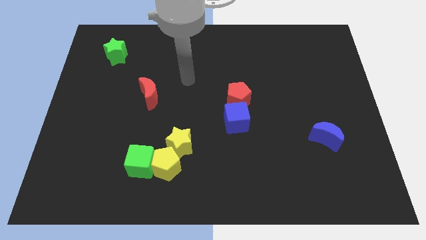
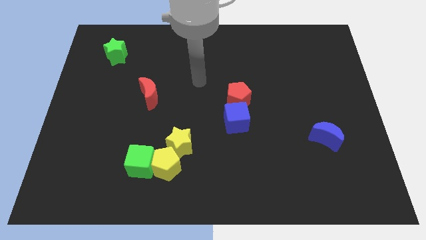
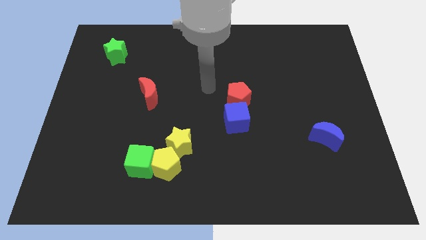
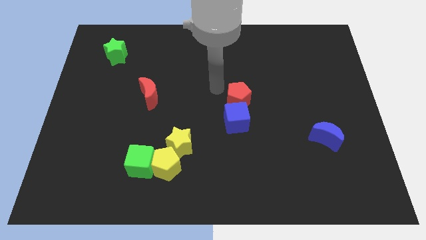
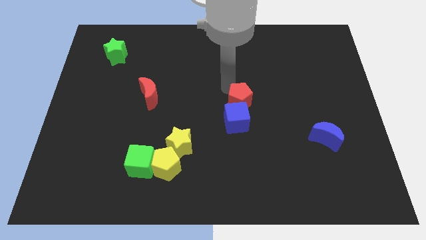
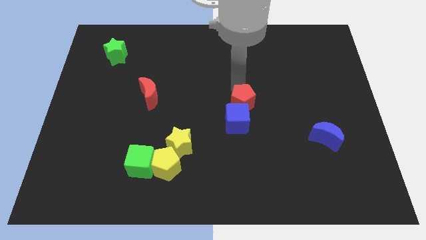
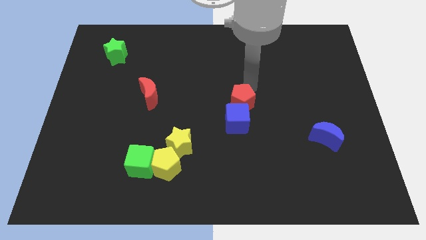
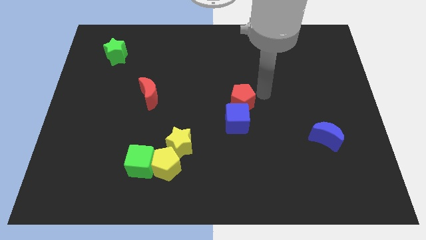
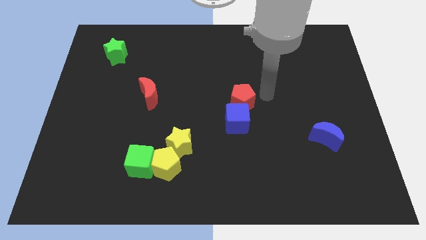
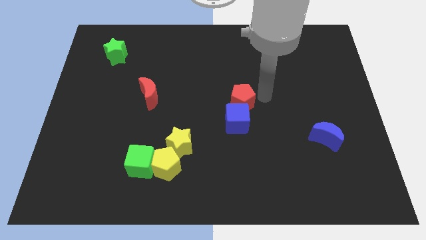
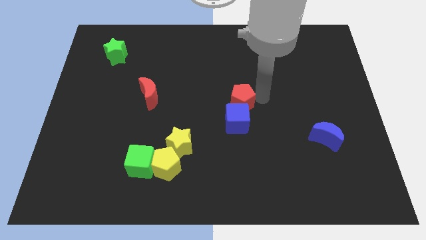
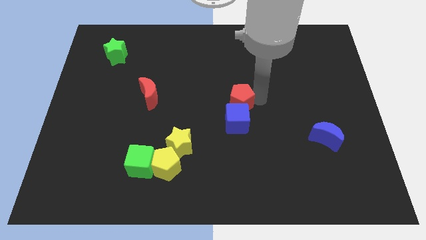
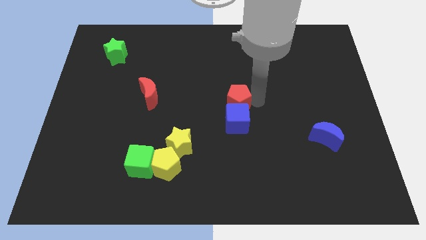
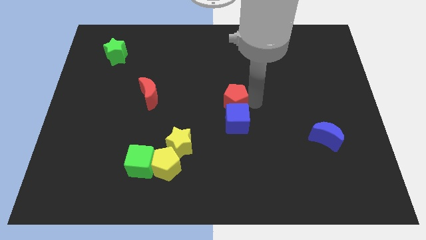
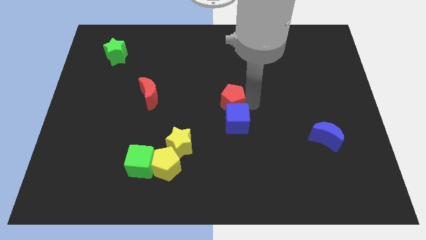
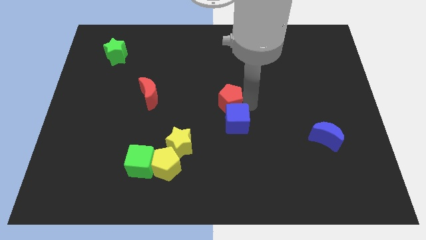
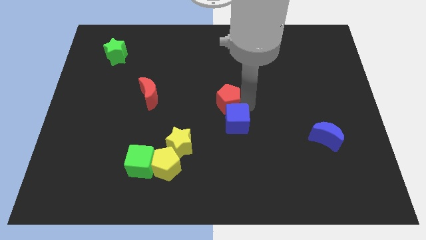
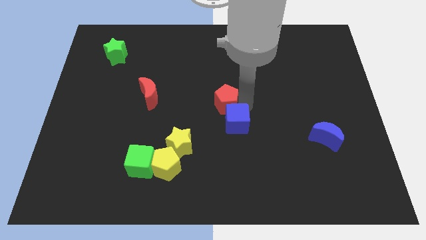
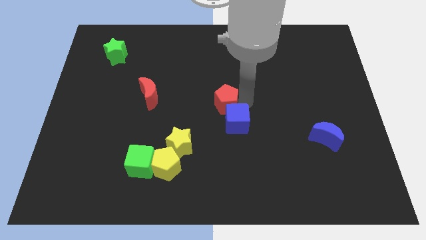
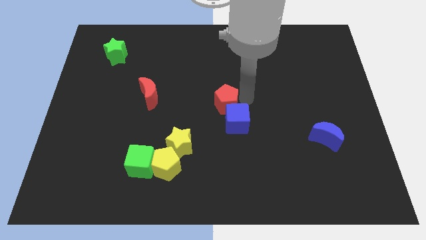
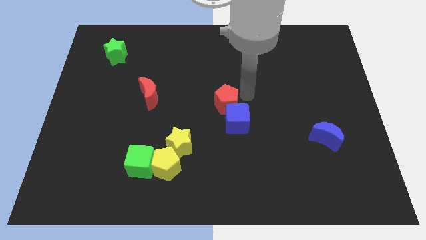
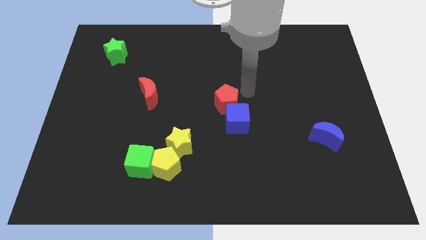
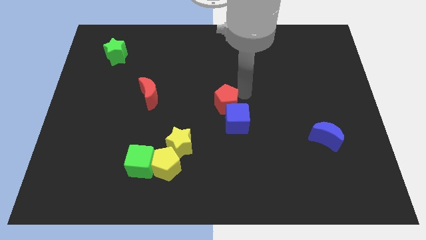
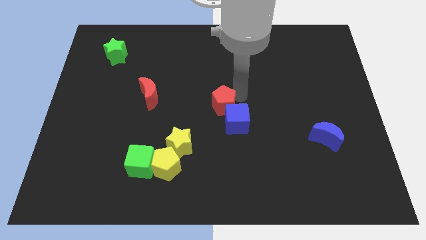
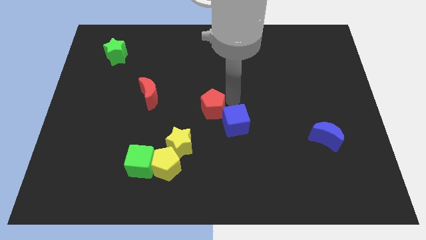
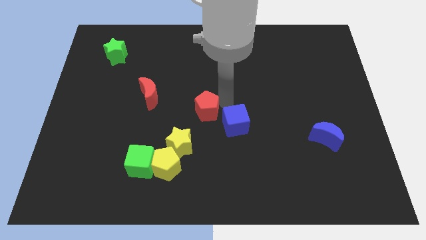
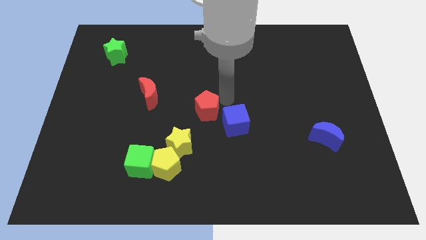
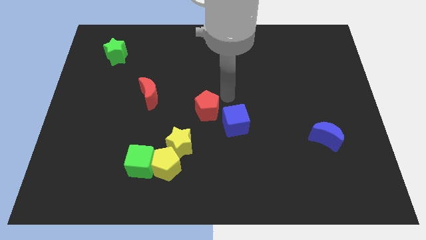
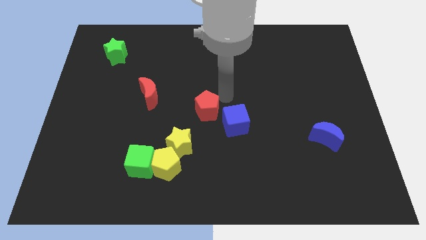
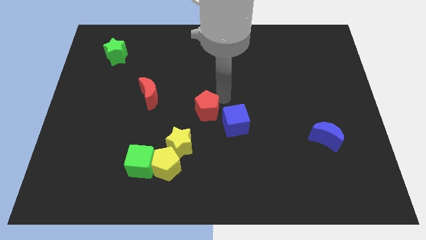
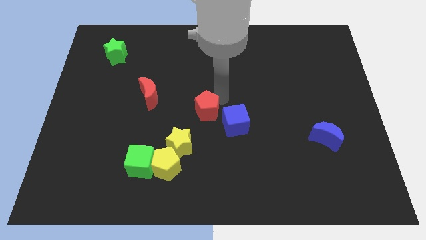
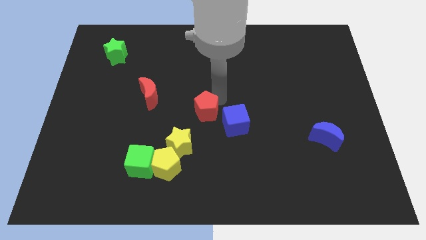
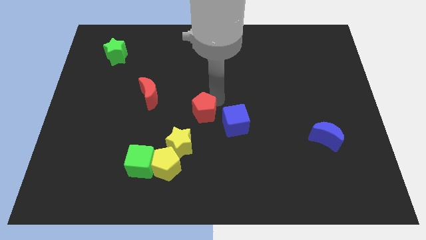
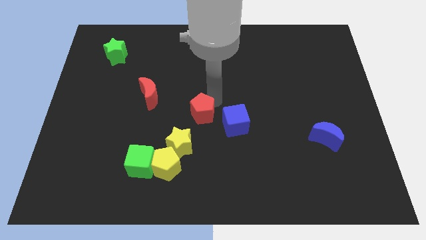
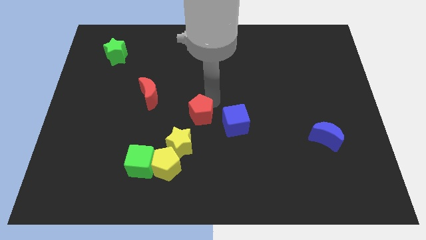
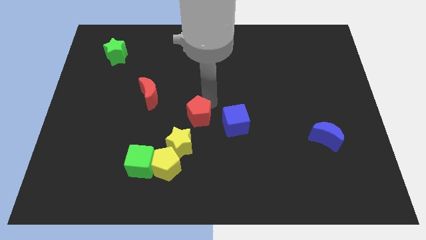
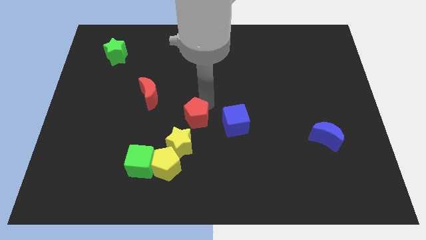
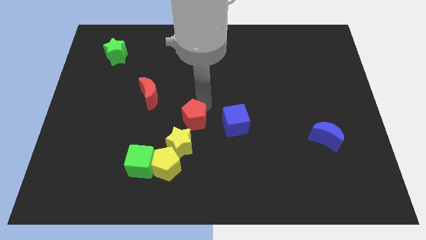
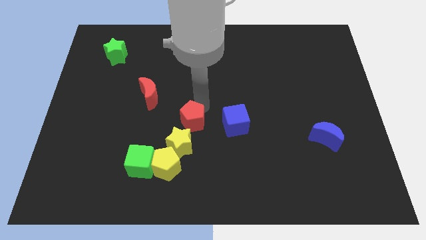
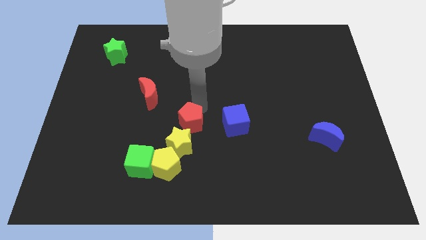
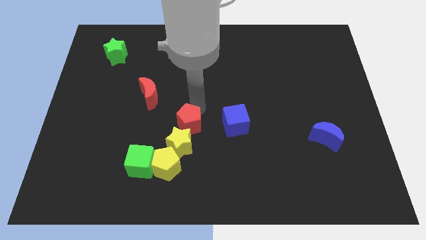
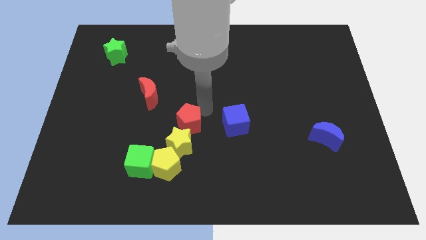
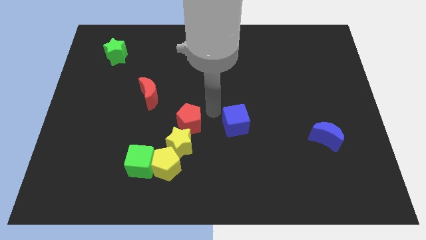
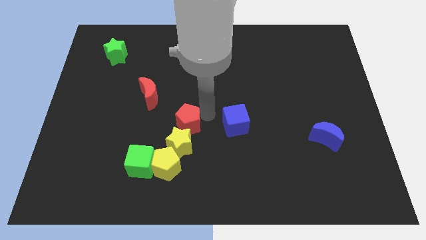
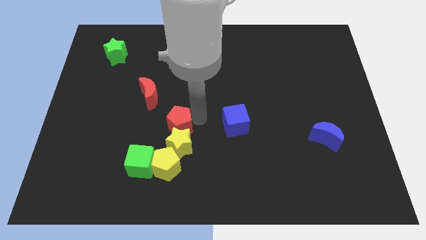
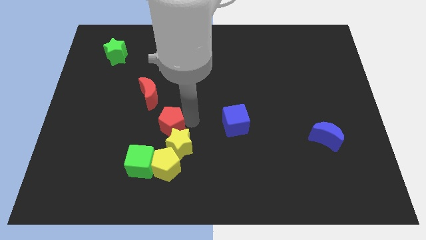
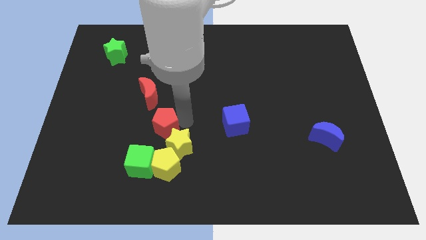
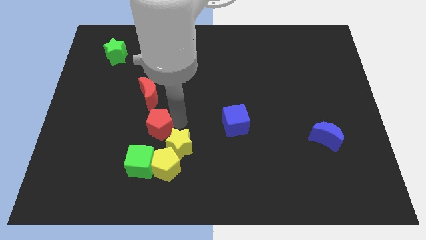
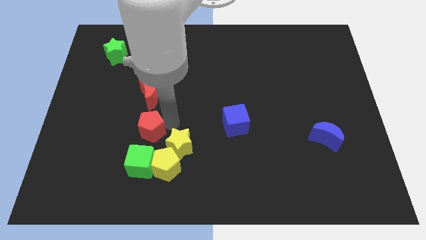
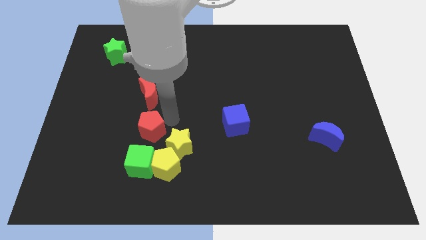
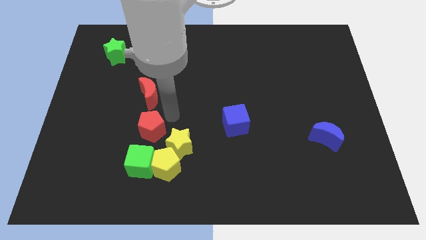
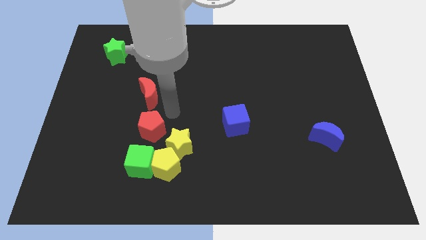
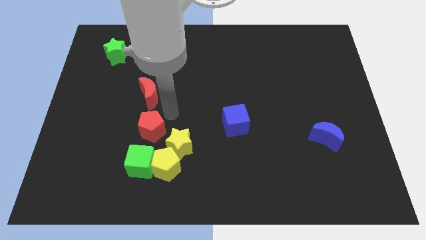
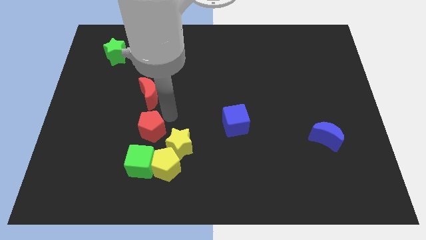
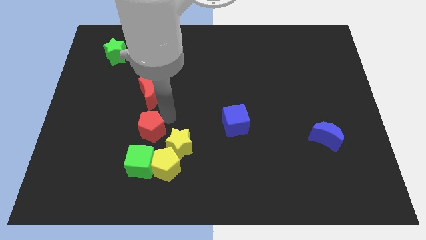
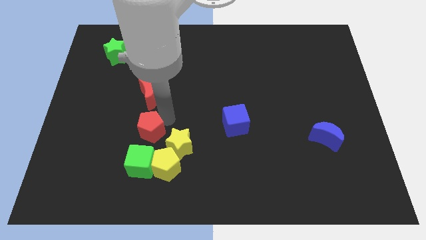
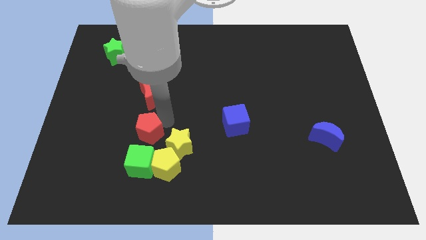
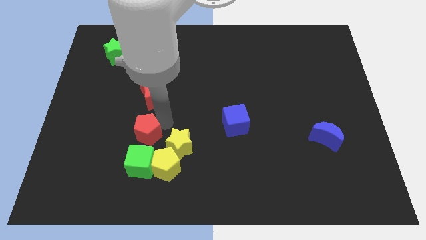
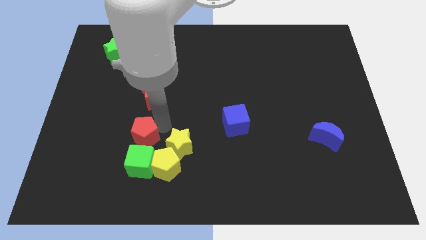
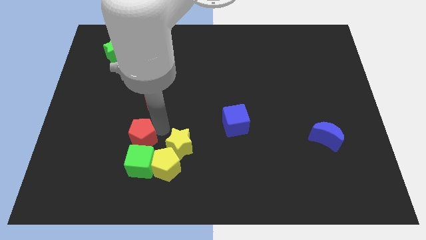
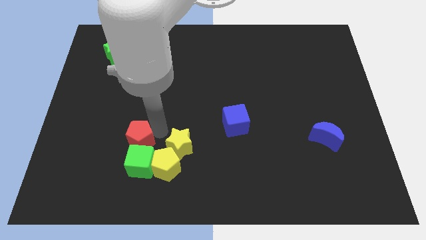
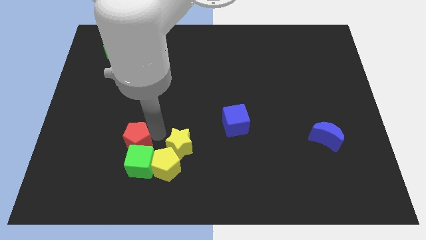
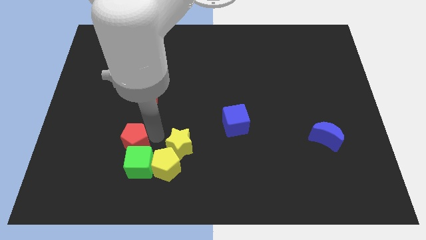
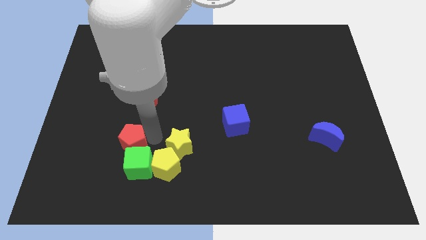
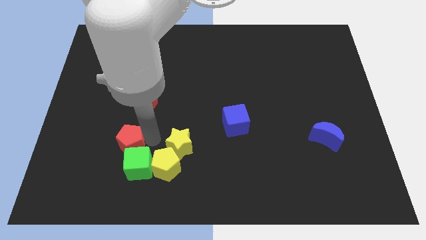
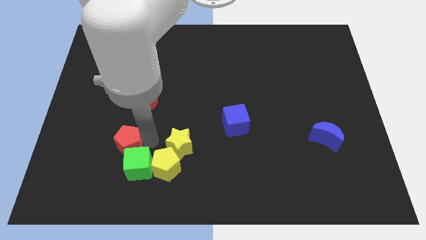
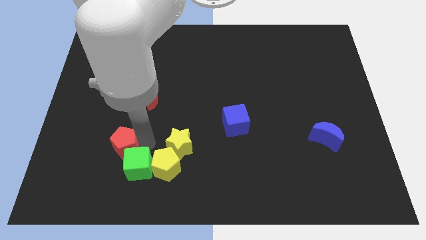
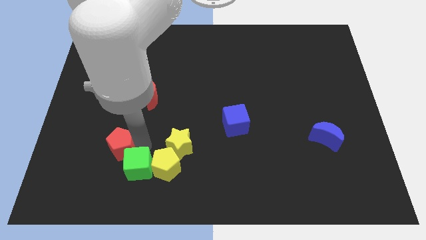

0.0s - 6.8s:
move the red pentagon left of the green cube

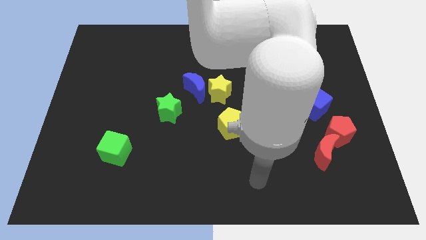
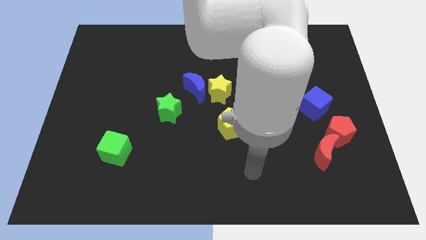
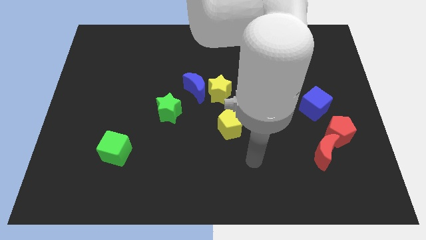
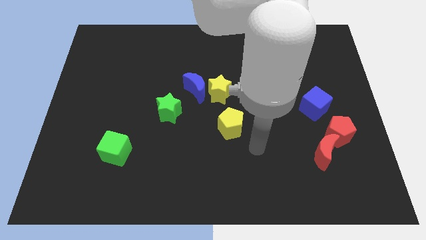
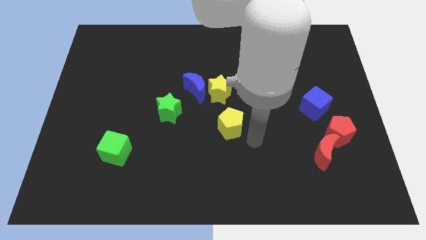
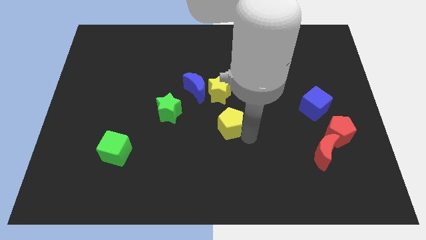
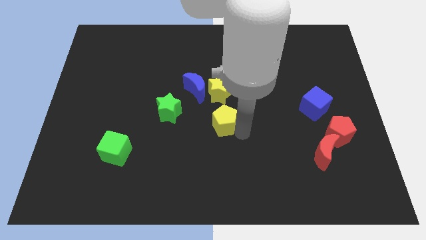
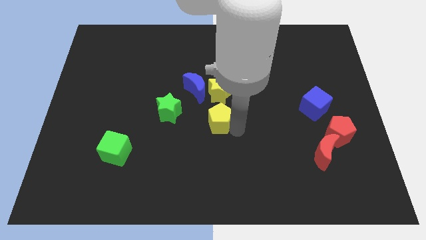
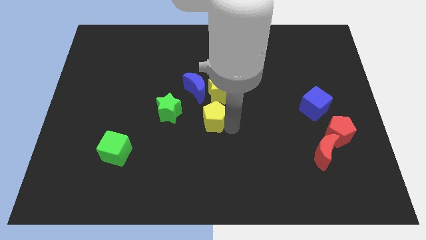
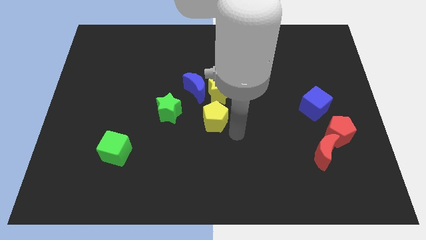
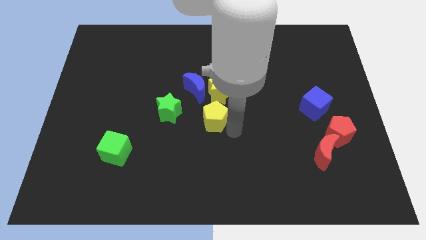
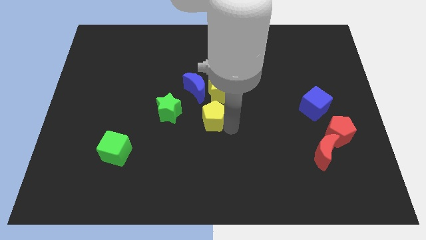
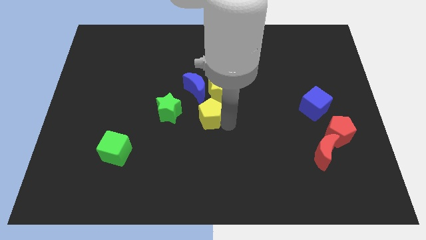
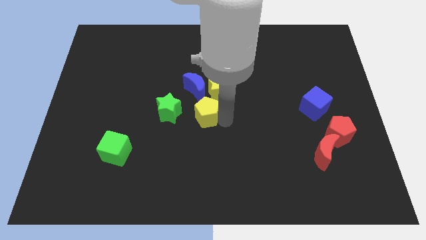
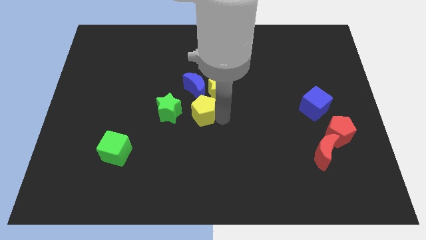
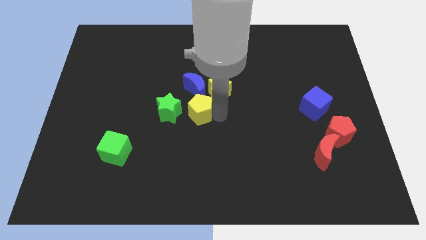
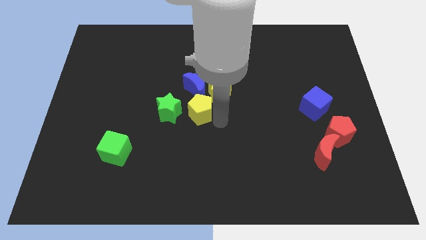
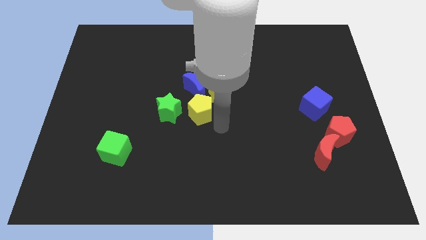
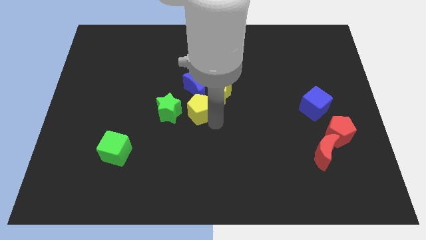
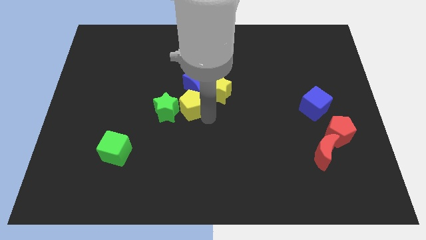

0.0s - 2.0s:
slide the yellow pentagon left of the yellow star
